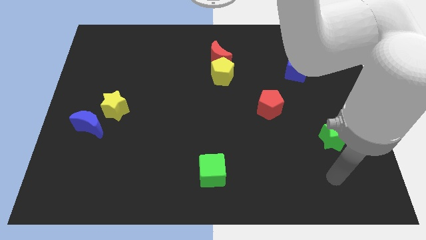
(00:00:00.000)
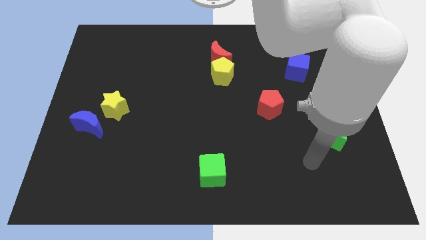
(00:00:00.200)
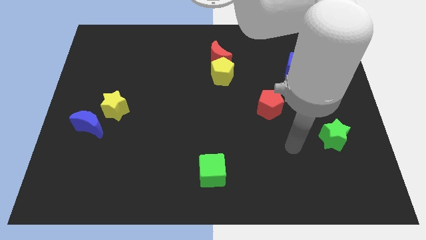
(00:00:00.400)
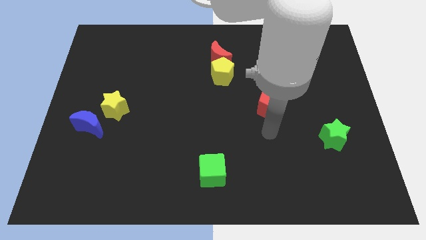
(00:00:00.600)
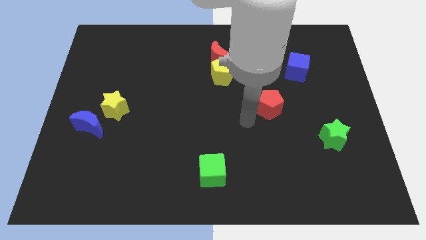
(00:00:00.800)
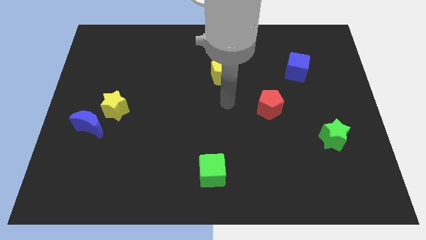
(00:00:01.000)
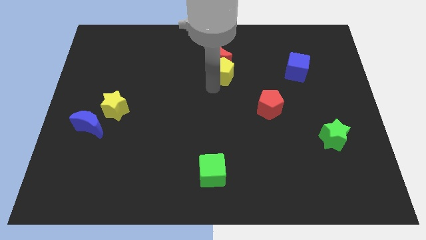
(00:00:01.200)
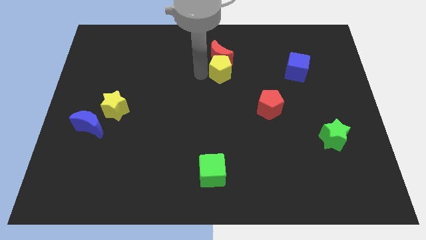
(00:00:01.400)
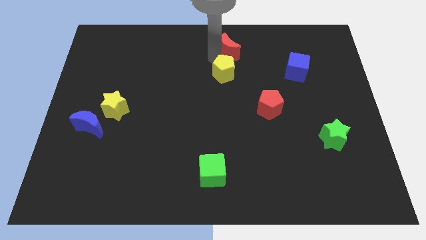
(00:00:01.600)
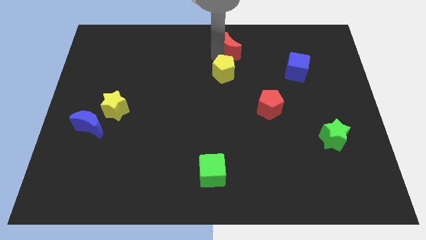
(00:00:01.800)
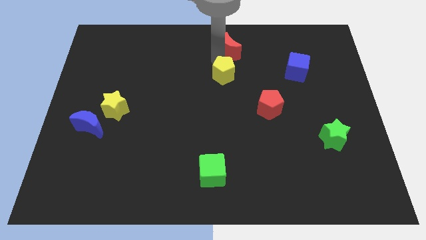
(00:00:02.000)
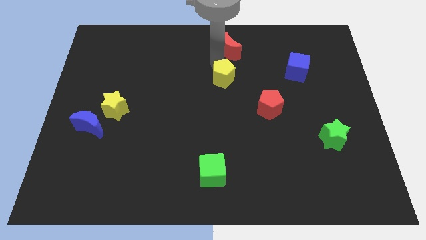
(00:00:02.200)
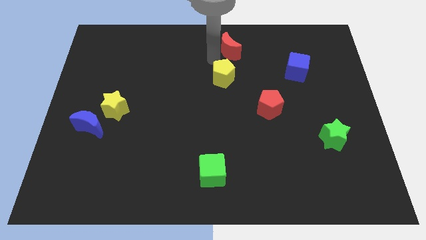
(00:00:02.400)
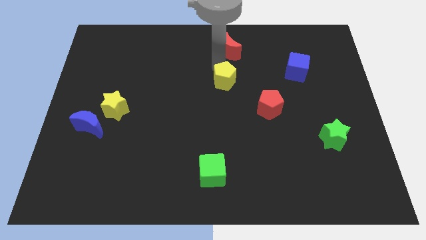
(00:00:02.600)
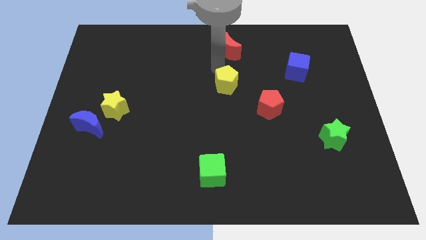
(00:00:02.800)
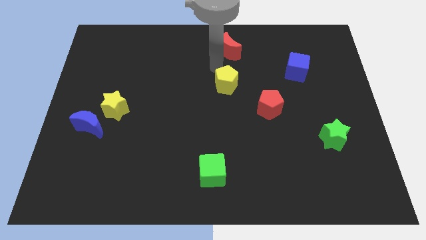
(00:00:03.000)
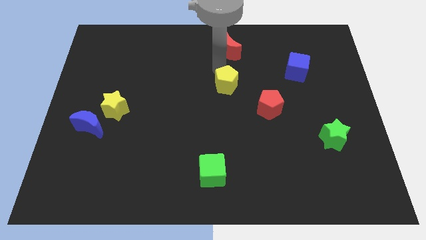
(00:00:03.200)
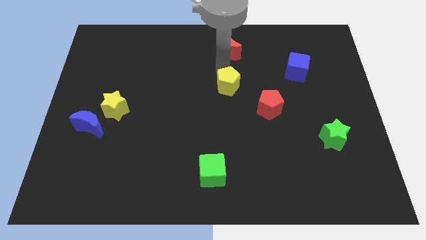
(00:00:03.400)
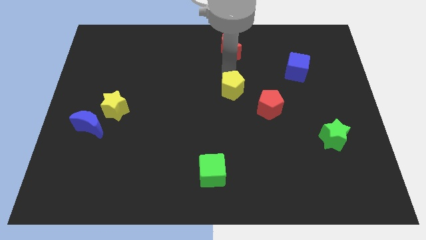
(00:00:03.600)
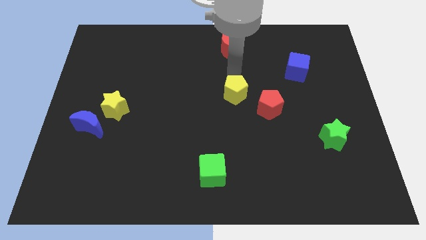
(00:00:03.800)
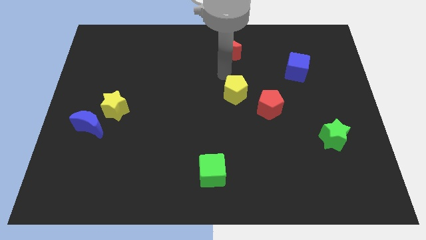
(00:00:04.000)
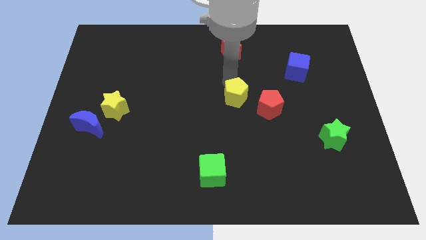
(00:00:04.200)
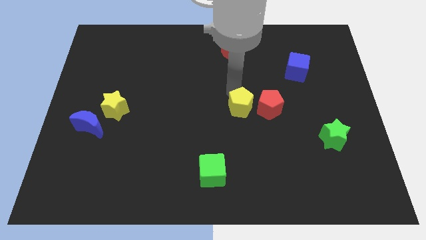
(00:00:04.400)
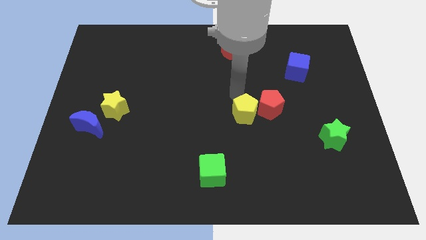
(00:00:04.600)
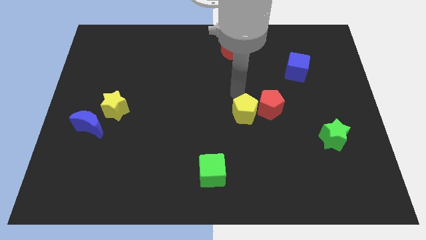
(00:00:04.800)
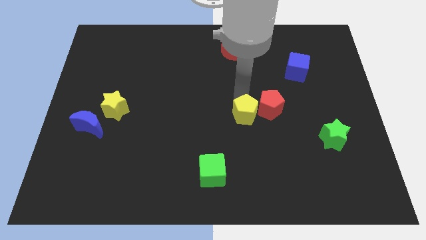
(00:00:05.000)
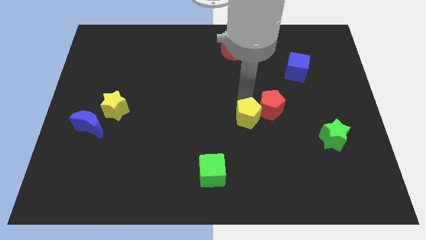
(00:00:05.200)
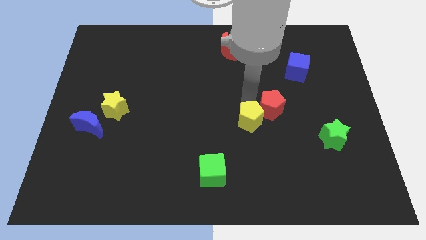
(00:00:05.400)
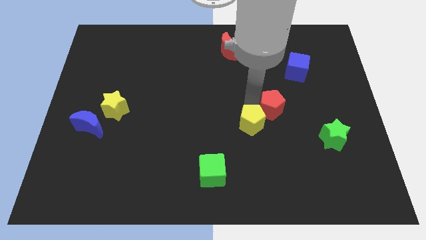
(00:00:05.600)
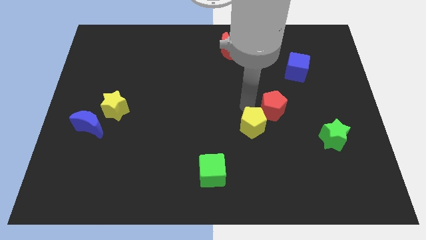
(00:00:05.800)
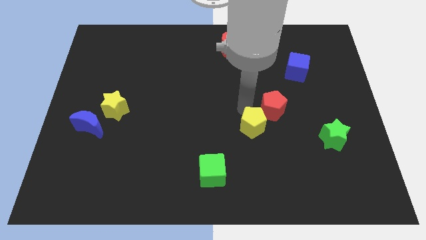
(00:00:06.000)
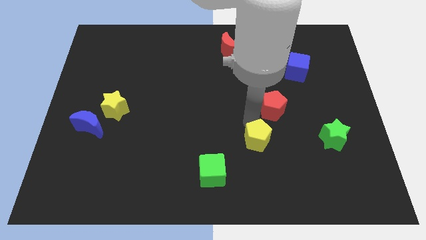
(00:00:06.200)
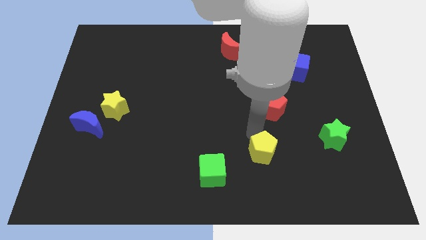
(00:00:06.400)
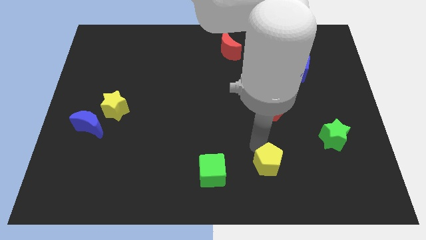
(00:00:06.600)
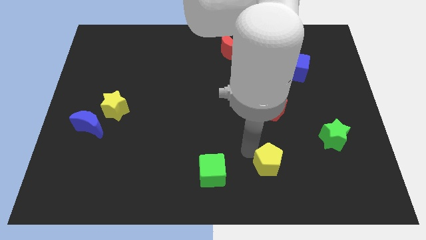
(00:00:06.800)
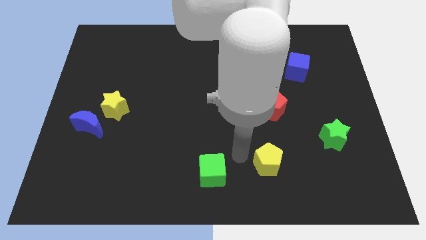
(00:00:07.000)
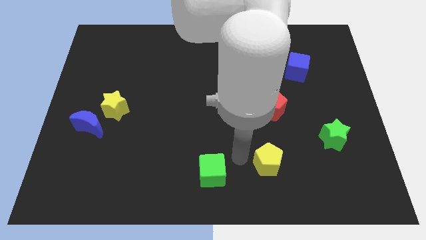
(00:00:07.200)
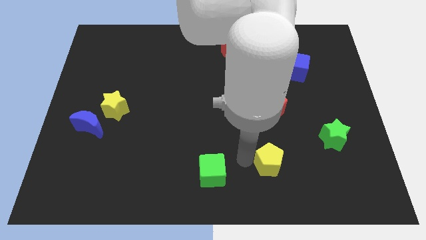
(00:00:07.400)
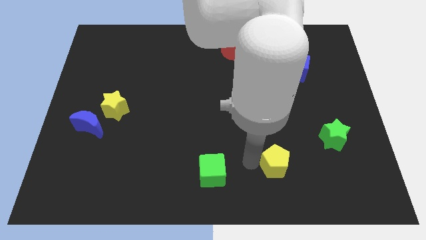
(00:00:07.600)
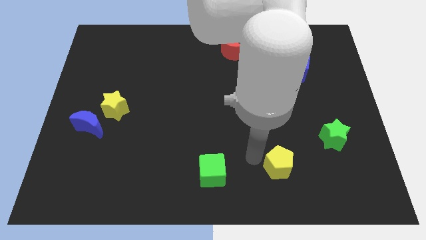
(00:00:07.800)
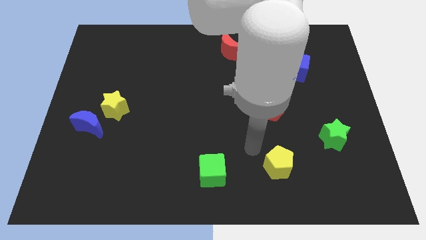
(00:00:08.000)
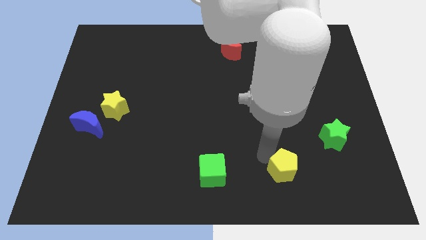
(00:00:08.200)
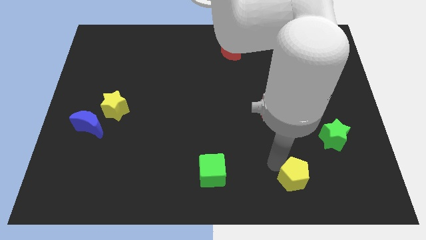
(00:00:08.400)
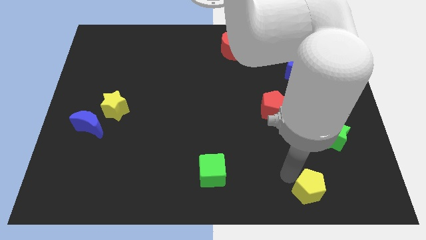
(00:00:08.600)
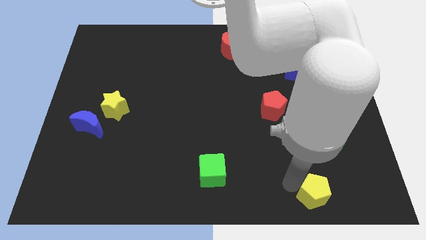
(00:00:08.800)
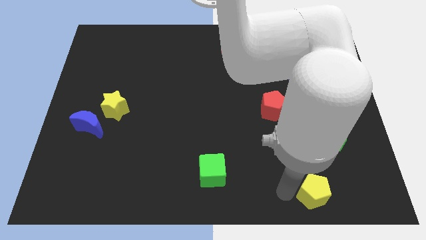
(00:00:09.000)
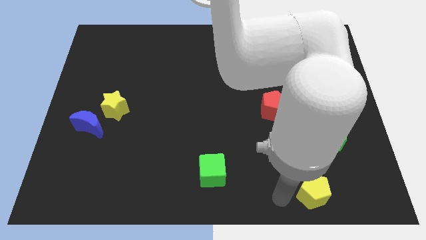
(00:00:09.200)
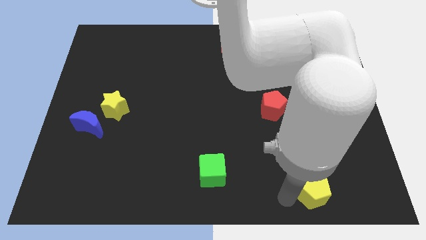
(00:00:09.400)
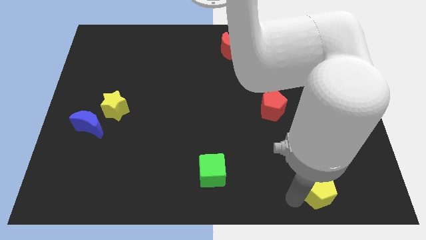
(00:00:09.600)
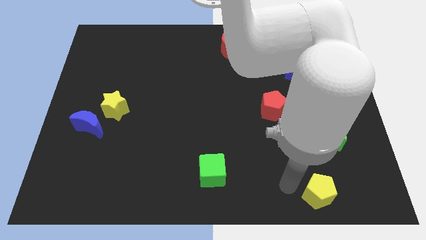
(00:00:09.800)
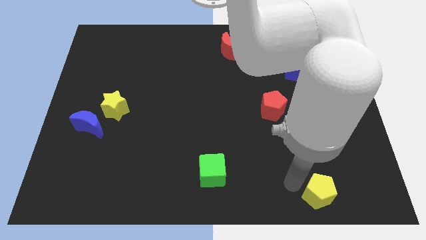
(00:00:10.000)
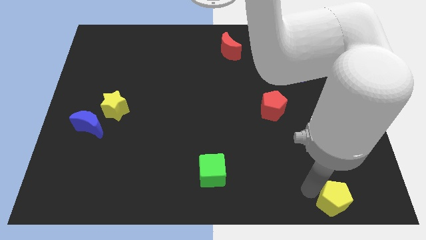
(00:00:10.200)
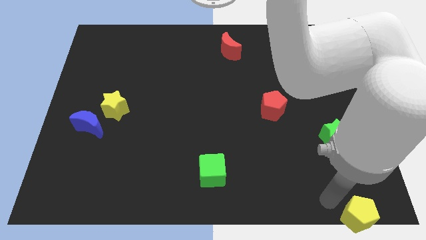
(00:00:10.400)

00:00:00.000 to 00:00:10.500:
put the yellow pentagon to the lower right corner

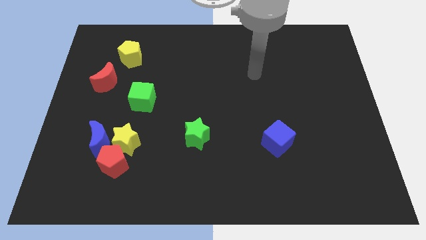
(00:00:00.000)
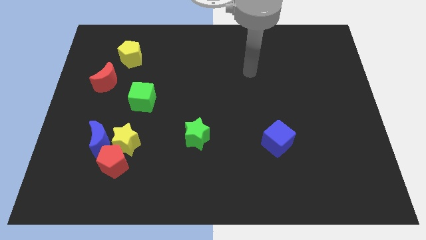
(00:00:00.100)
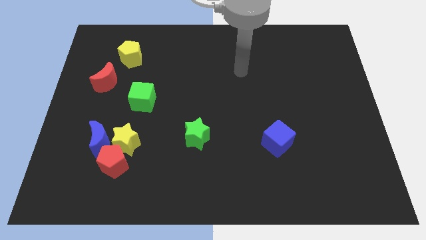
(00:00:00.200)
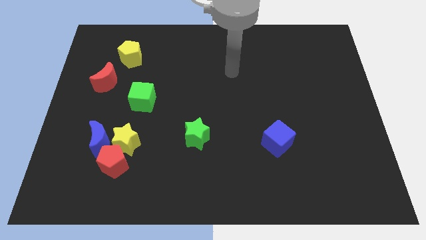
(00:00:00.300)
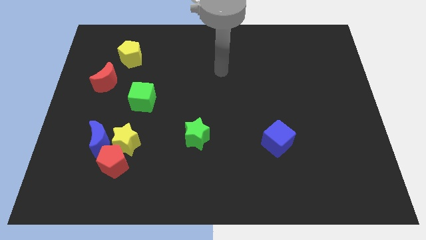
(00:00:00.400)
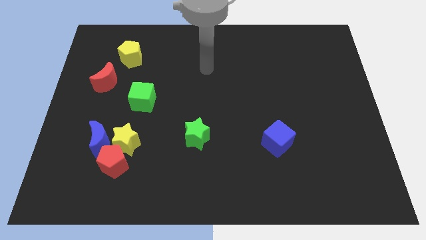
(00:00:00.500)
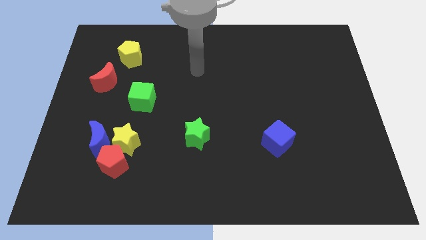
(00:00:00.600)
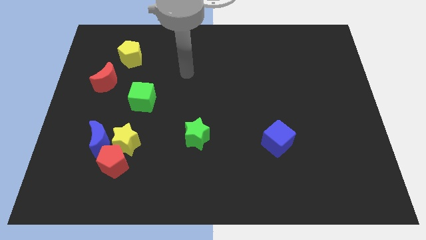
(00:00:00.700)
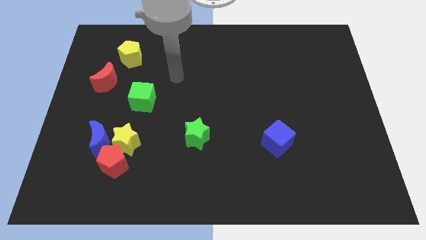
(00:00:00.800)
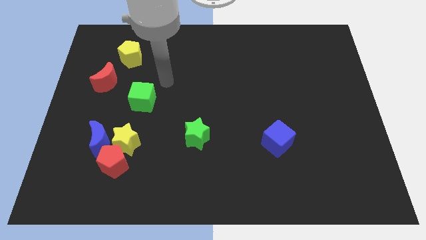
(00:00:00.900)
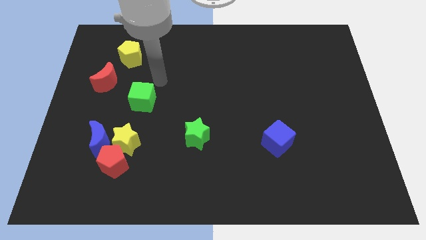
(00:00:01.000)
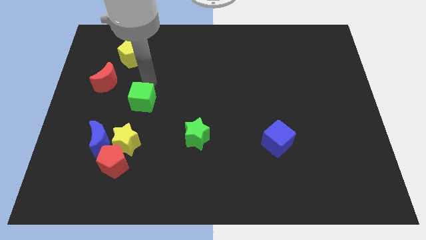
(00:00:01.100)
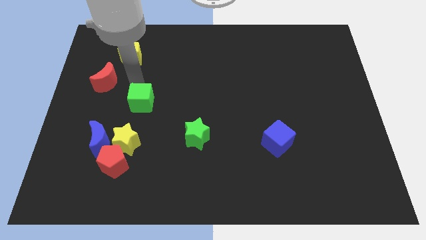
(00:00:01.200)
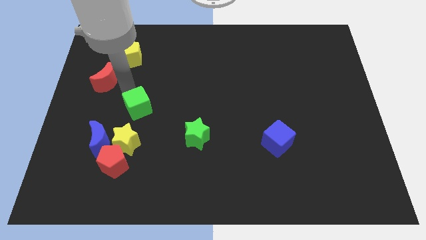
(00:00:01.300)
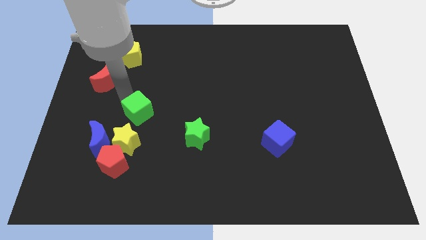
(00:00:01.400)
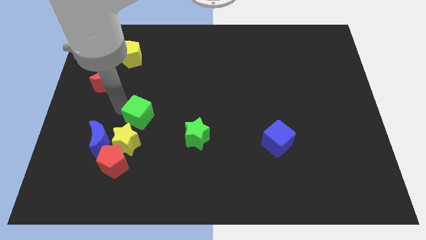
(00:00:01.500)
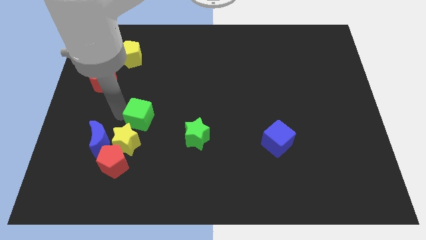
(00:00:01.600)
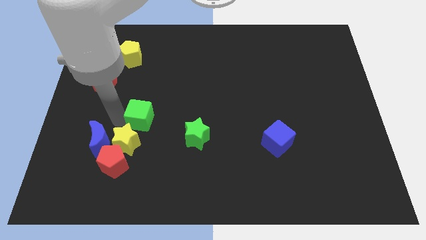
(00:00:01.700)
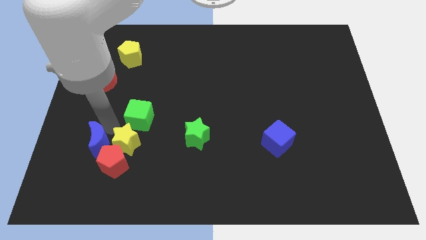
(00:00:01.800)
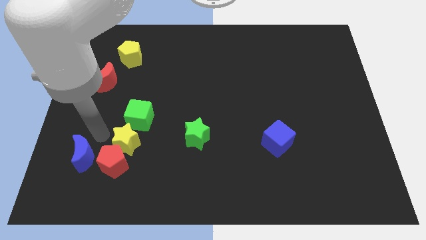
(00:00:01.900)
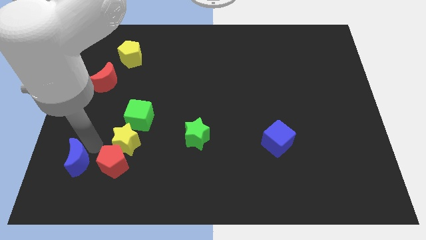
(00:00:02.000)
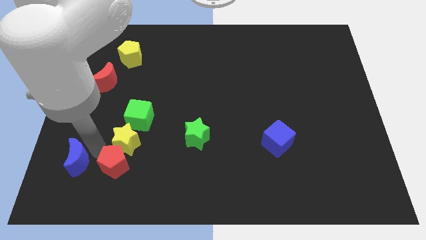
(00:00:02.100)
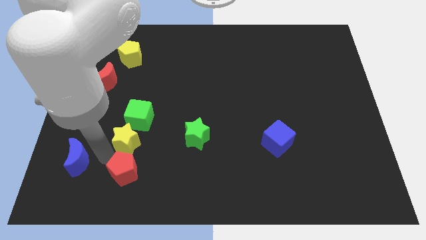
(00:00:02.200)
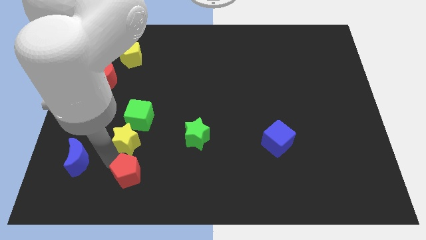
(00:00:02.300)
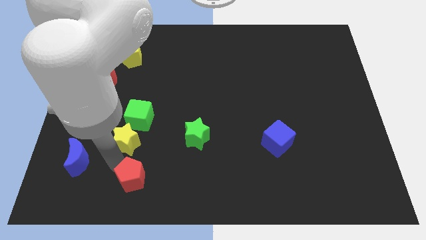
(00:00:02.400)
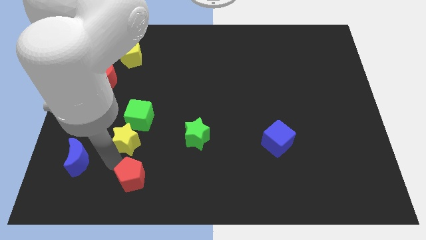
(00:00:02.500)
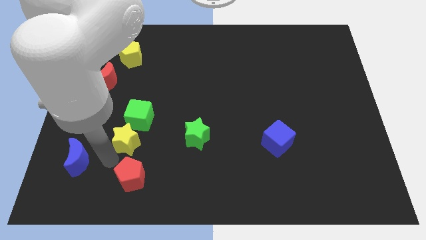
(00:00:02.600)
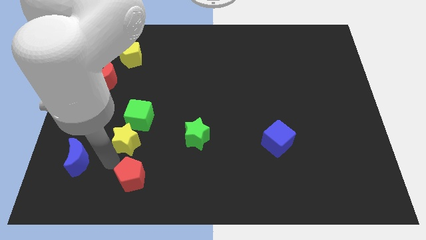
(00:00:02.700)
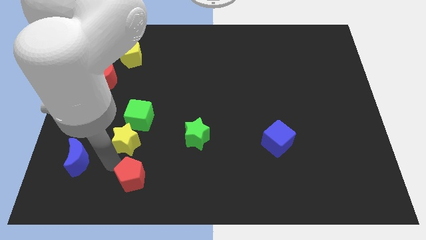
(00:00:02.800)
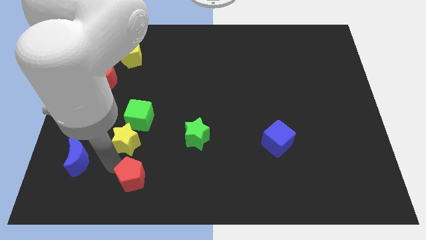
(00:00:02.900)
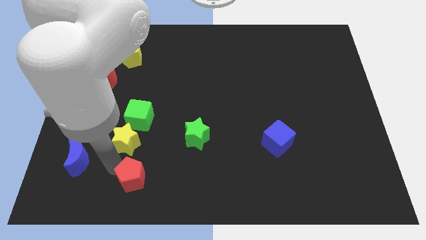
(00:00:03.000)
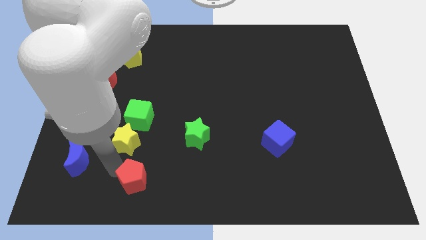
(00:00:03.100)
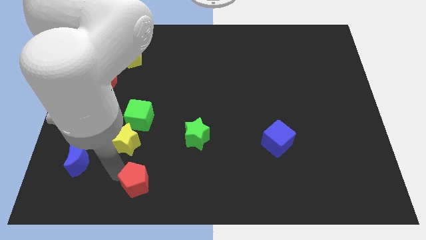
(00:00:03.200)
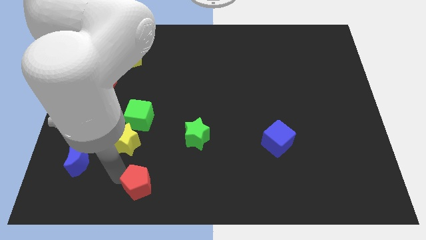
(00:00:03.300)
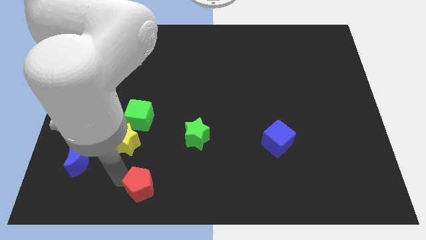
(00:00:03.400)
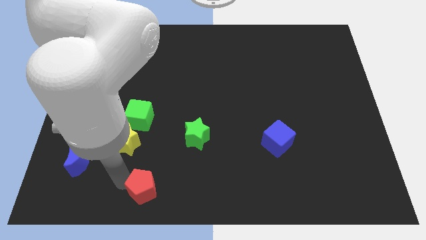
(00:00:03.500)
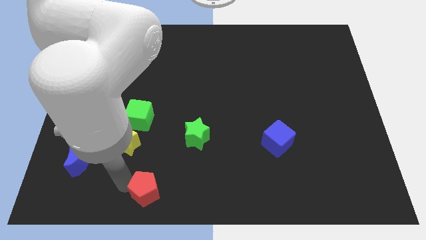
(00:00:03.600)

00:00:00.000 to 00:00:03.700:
push the red pentagon to the bottom
